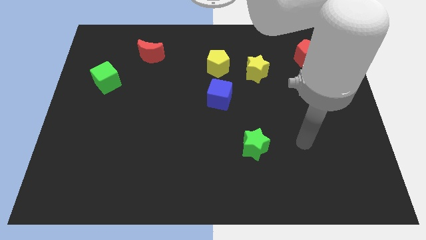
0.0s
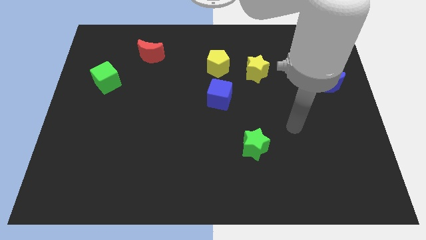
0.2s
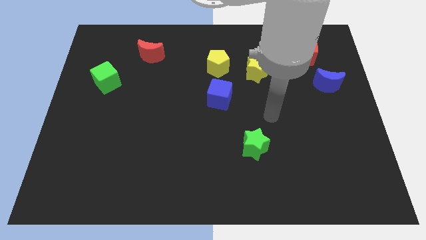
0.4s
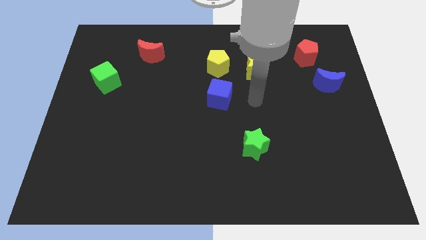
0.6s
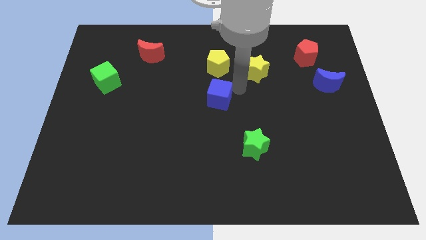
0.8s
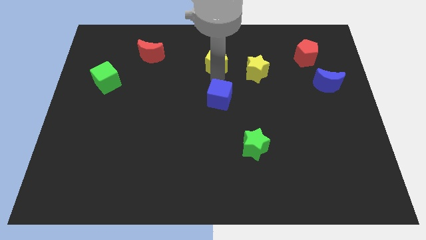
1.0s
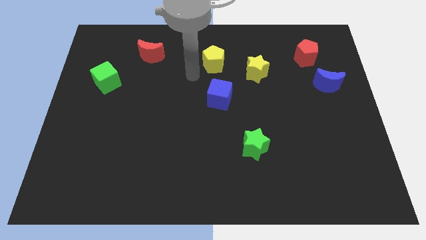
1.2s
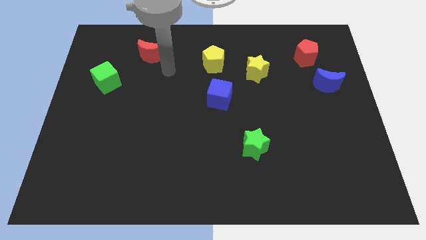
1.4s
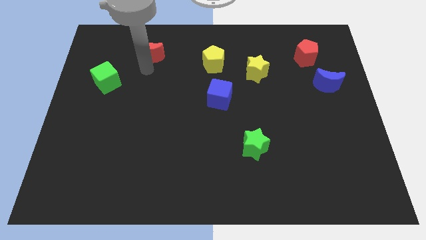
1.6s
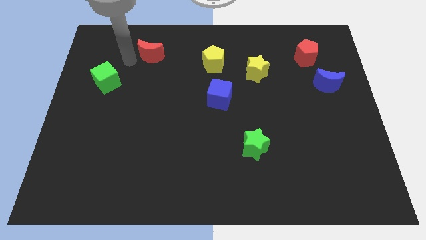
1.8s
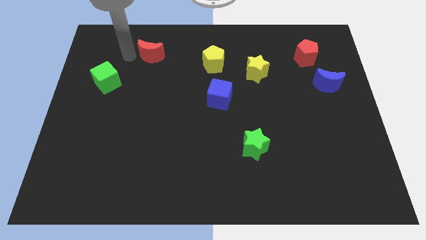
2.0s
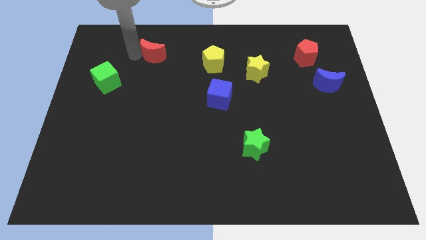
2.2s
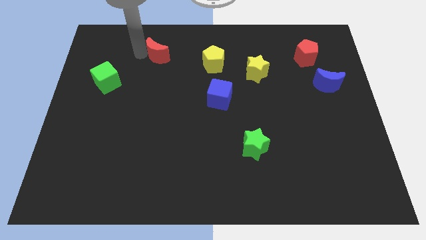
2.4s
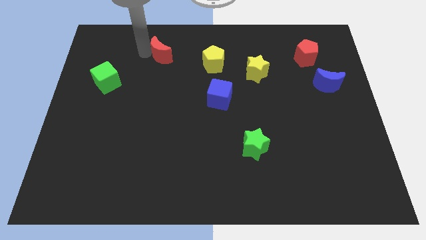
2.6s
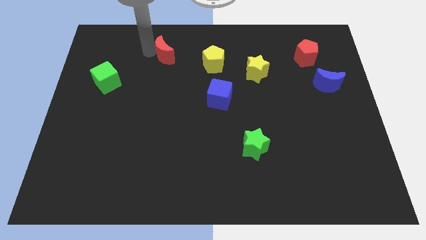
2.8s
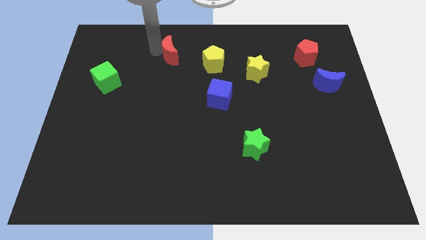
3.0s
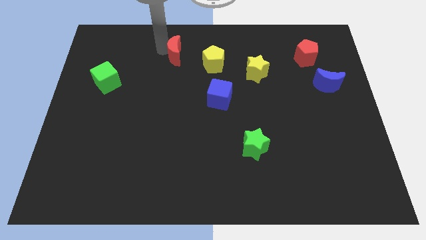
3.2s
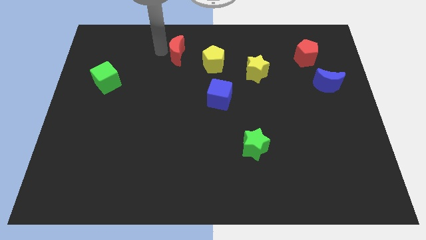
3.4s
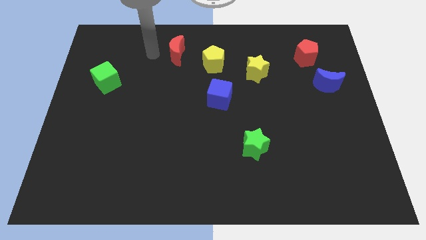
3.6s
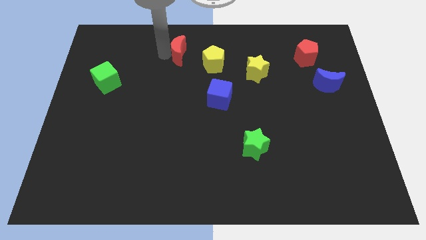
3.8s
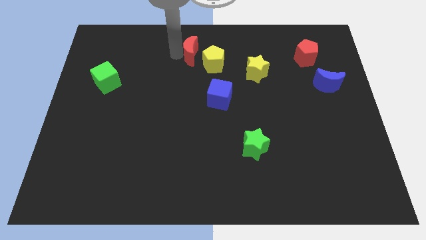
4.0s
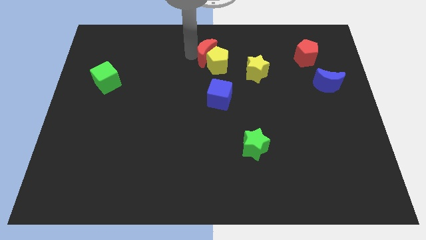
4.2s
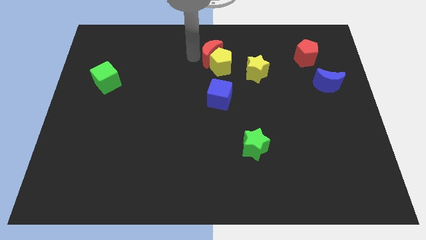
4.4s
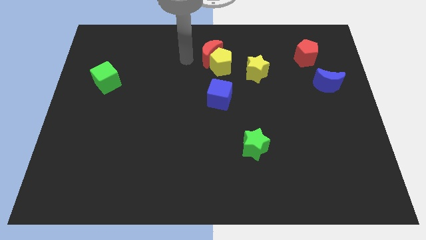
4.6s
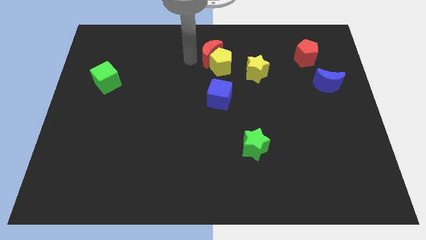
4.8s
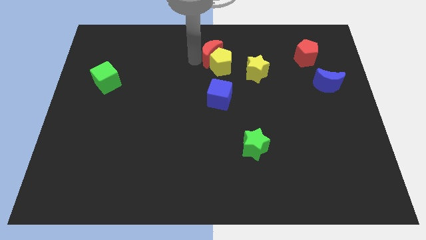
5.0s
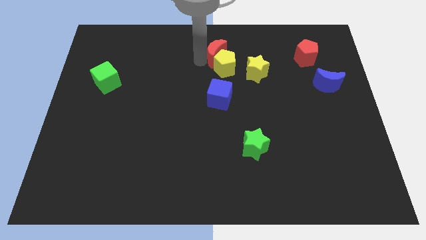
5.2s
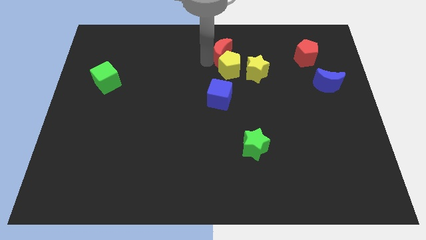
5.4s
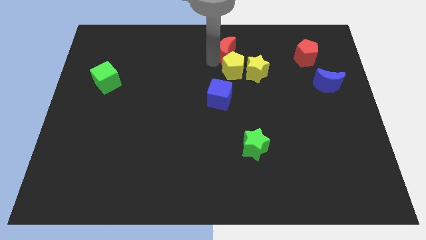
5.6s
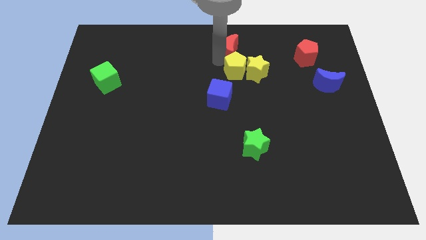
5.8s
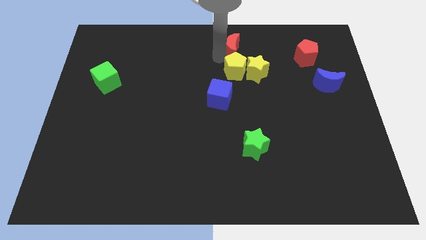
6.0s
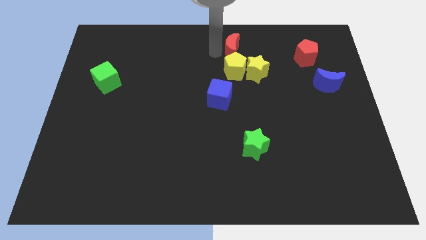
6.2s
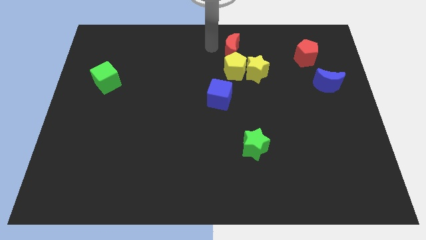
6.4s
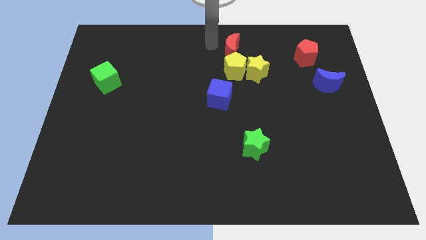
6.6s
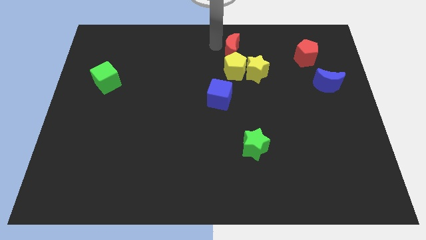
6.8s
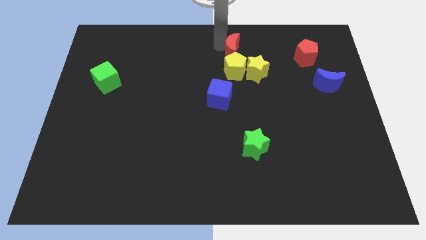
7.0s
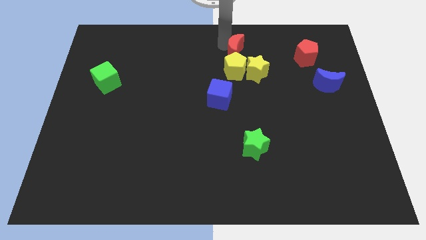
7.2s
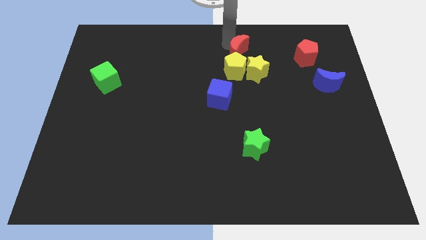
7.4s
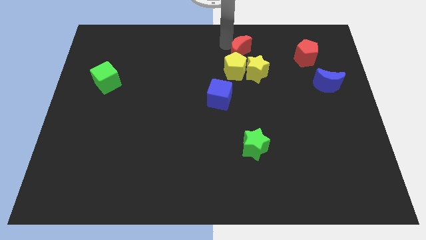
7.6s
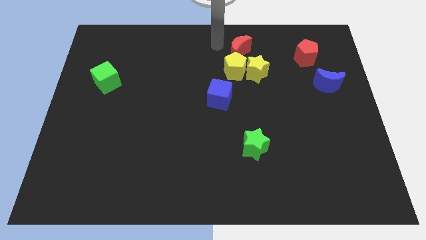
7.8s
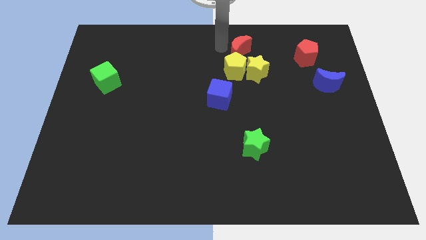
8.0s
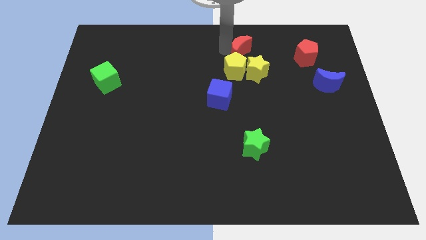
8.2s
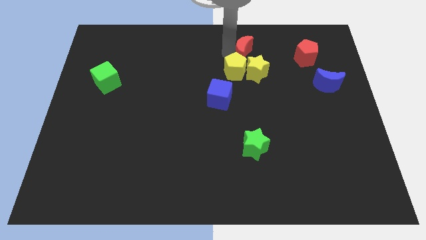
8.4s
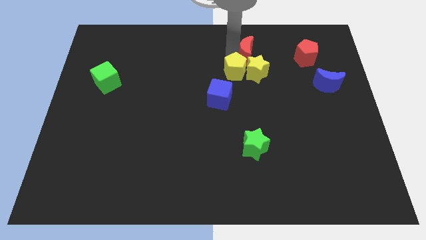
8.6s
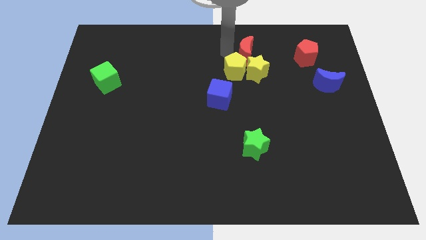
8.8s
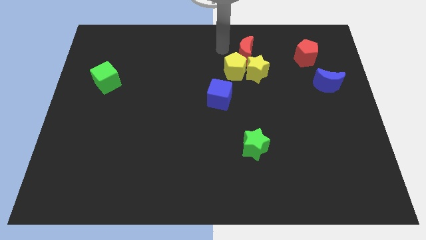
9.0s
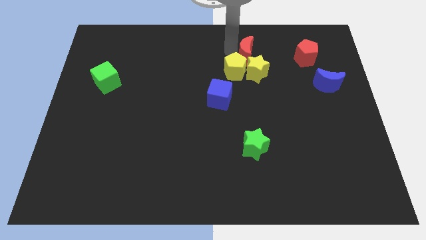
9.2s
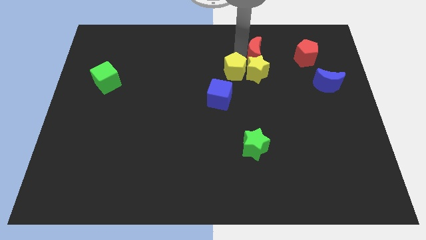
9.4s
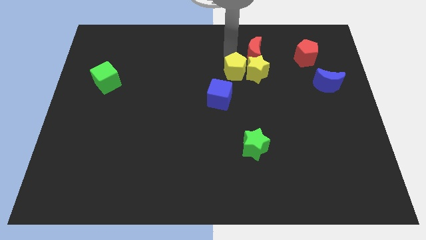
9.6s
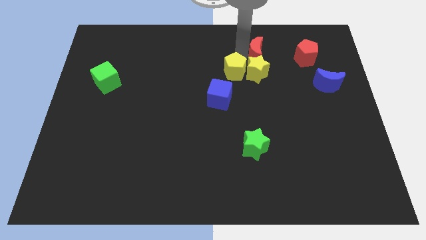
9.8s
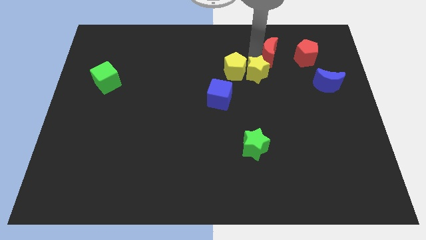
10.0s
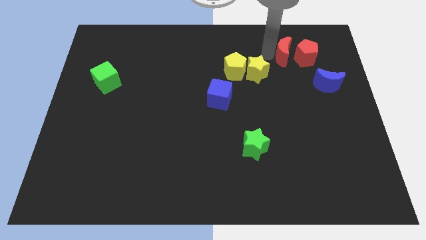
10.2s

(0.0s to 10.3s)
slide the red moon to the red pentagon

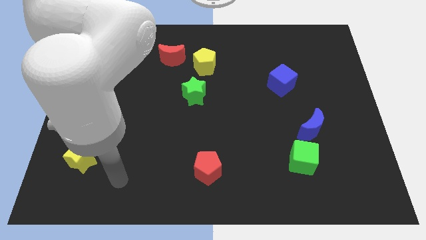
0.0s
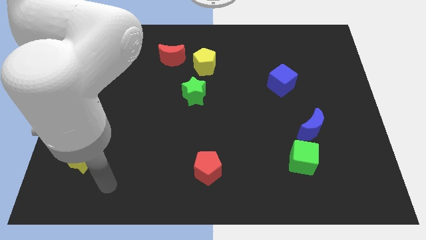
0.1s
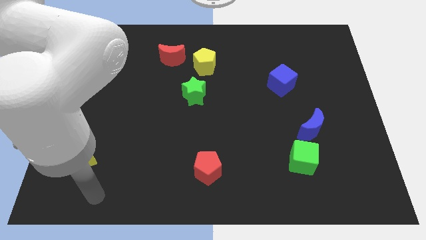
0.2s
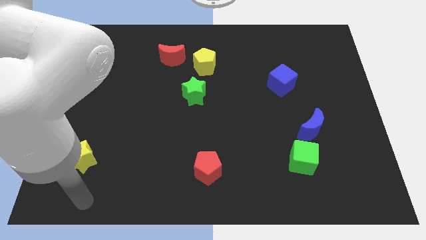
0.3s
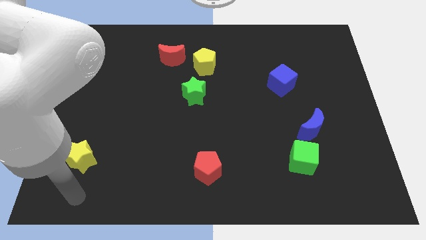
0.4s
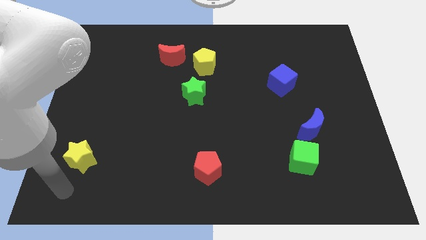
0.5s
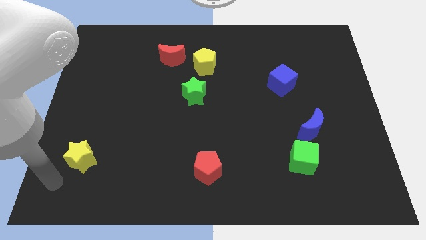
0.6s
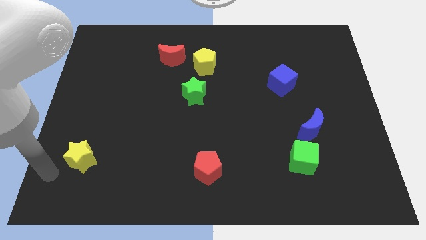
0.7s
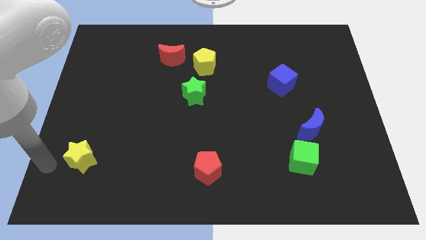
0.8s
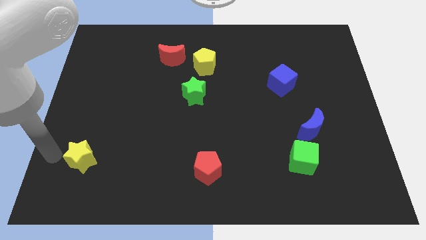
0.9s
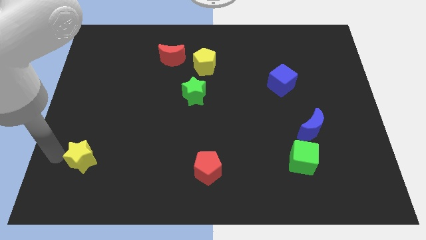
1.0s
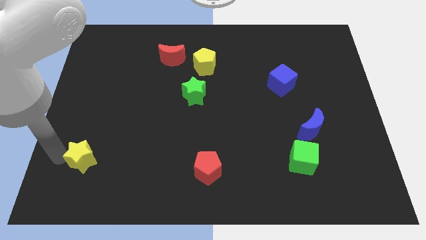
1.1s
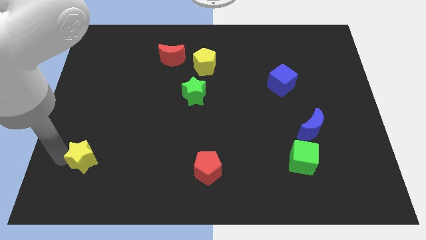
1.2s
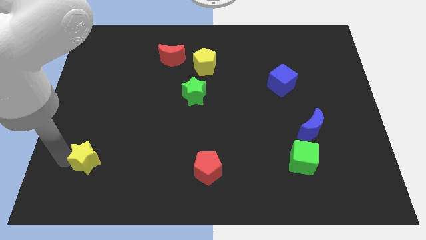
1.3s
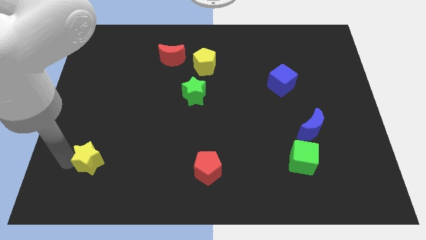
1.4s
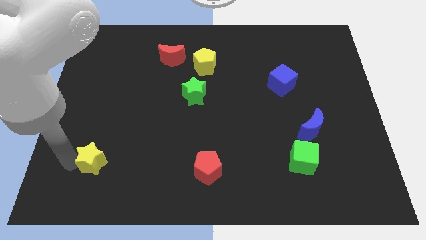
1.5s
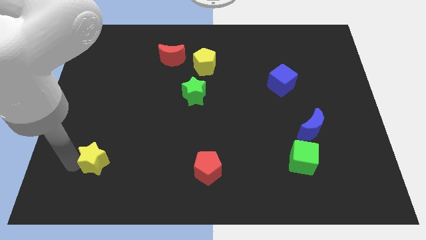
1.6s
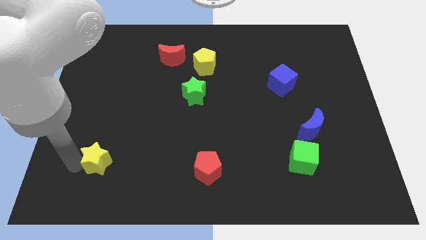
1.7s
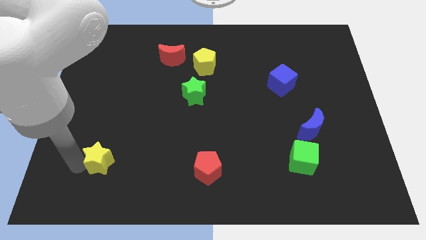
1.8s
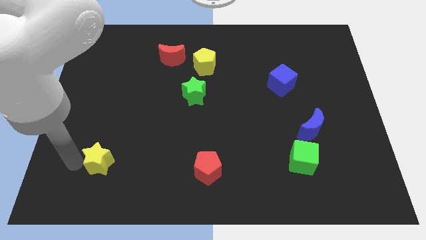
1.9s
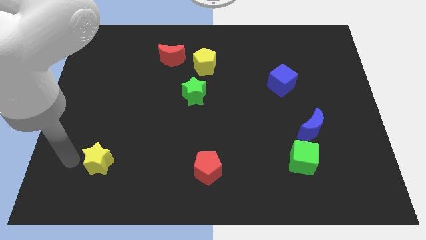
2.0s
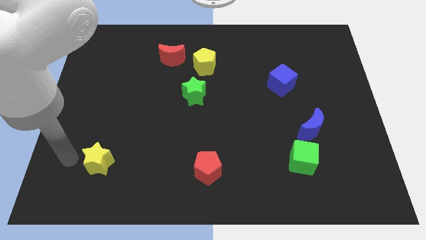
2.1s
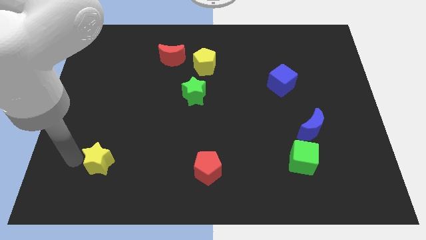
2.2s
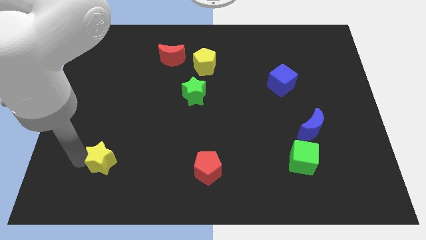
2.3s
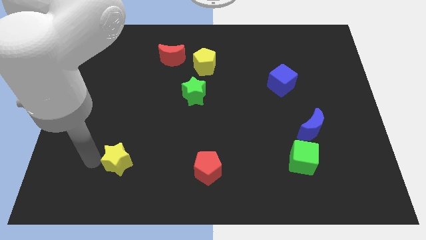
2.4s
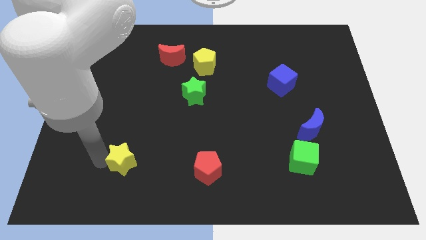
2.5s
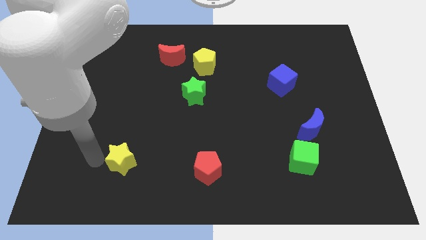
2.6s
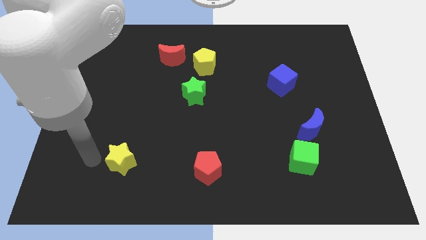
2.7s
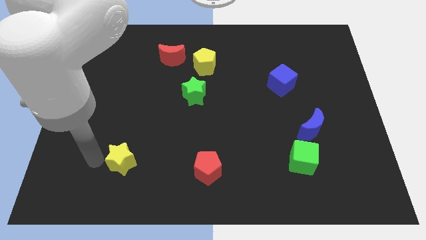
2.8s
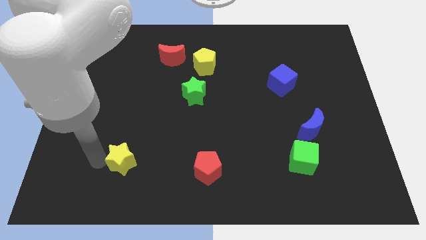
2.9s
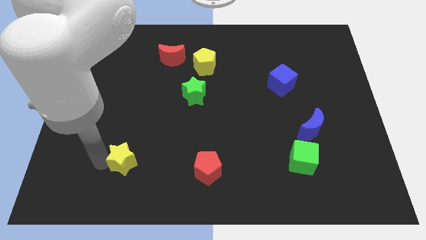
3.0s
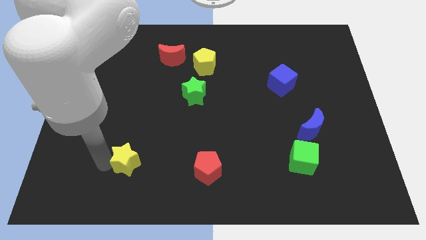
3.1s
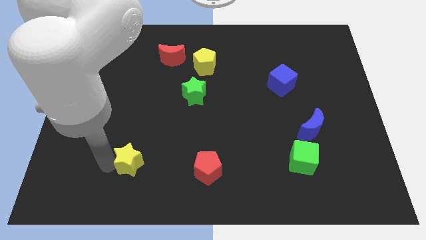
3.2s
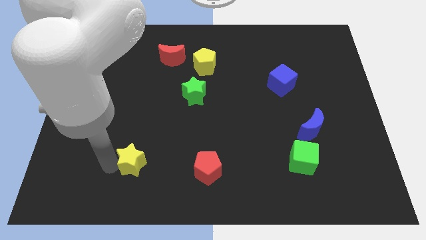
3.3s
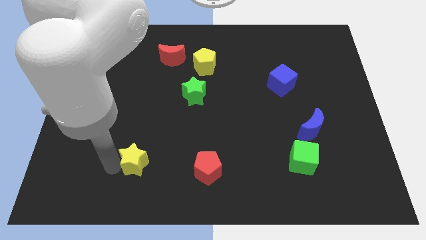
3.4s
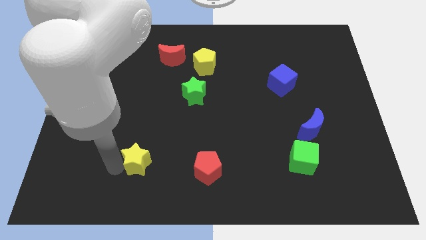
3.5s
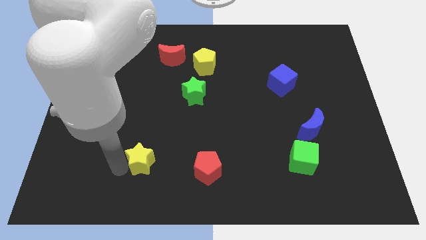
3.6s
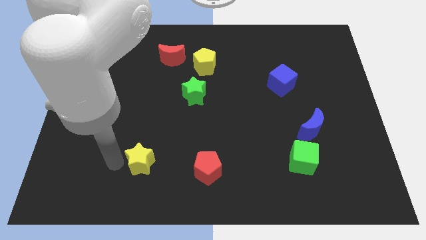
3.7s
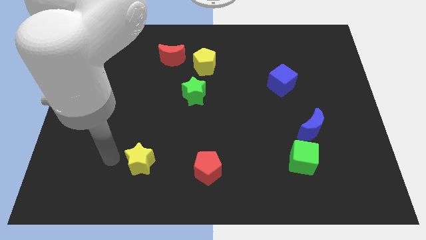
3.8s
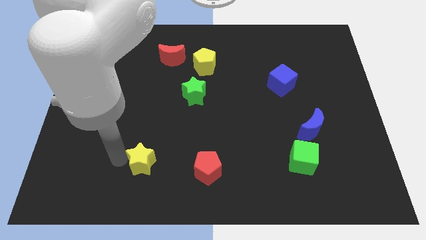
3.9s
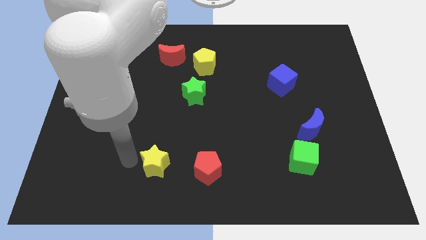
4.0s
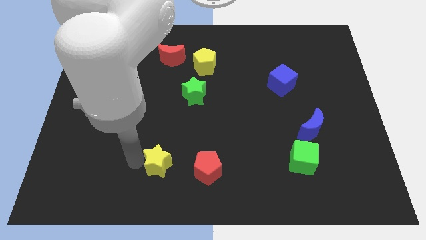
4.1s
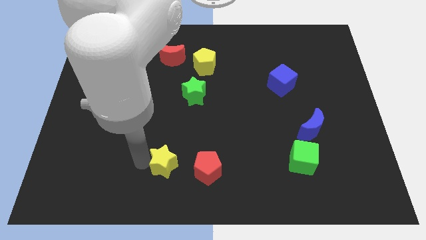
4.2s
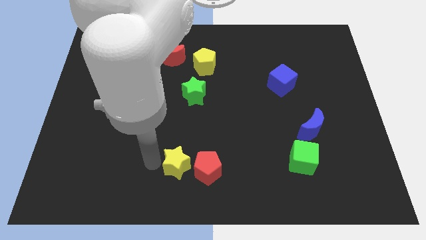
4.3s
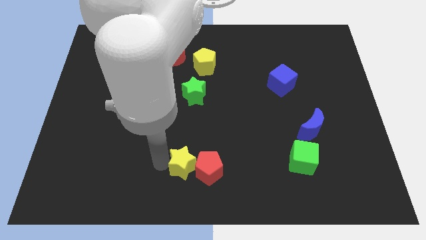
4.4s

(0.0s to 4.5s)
move the yellow star next to the red pentagon
